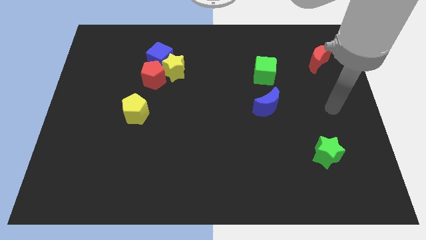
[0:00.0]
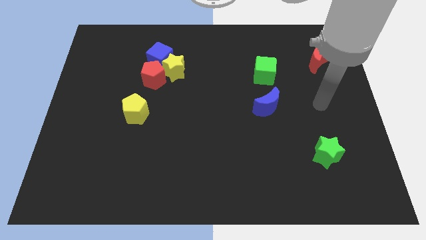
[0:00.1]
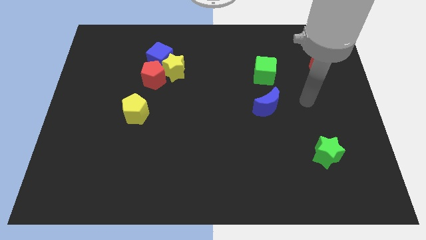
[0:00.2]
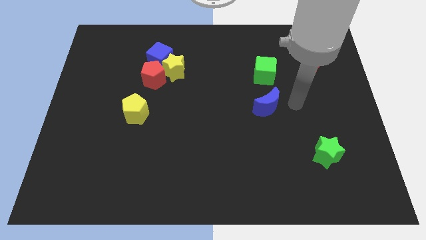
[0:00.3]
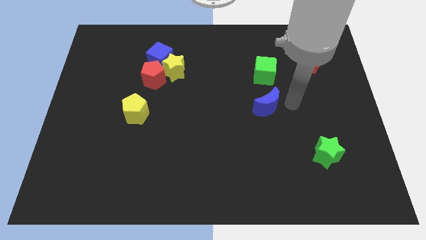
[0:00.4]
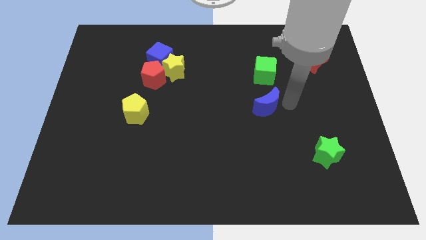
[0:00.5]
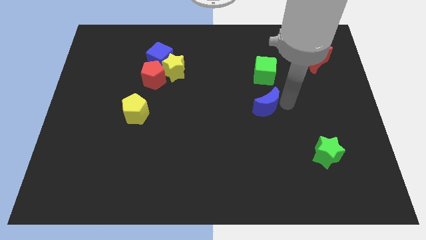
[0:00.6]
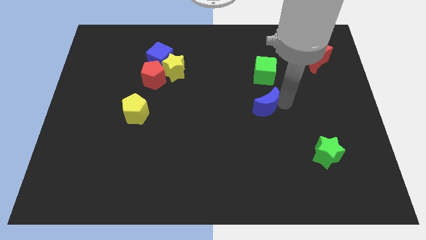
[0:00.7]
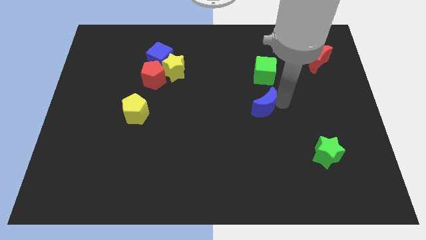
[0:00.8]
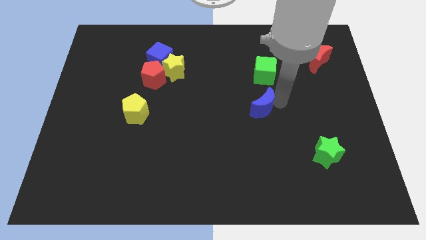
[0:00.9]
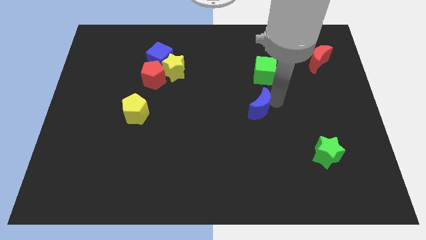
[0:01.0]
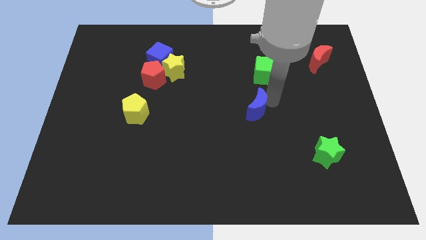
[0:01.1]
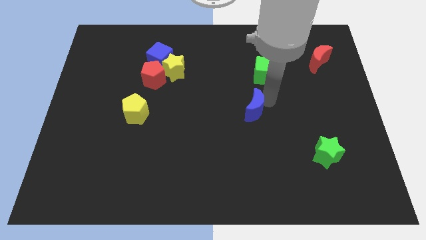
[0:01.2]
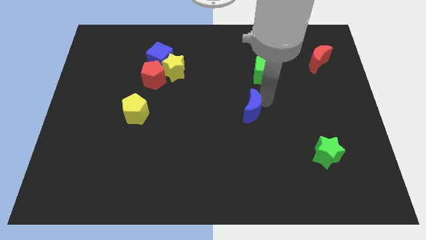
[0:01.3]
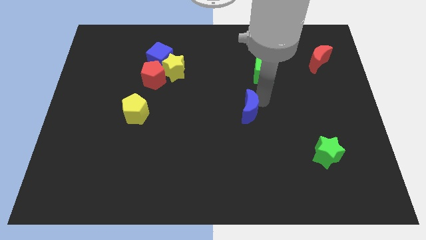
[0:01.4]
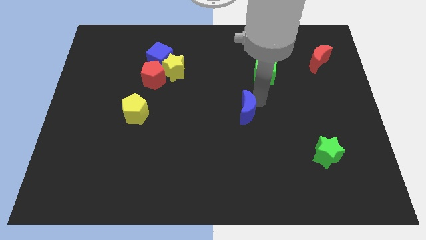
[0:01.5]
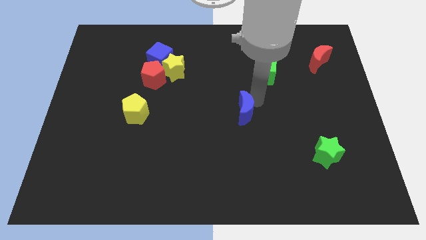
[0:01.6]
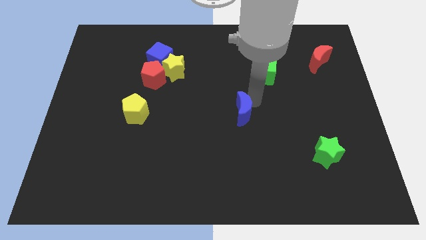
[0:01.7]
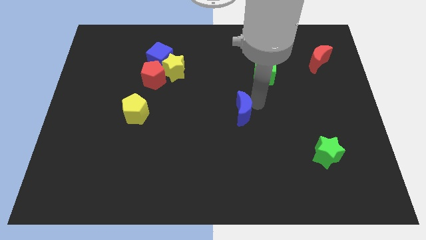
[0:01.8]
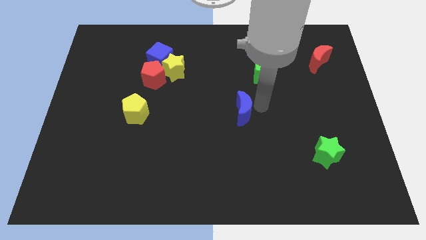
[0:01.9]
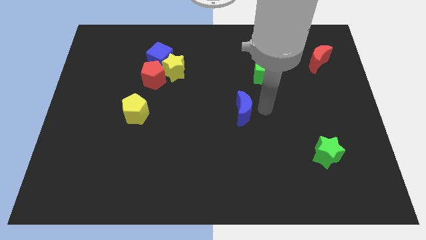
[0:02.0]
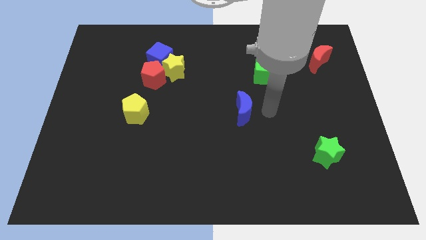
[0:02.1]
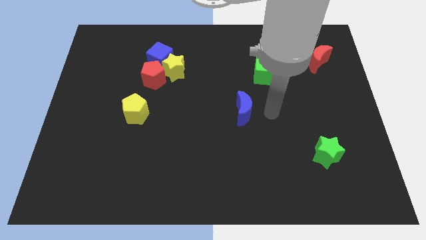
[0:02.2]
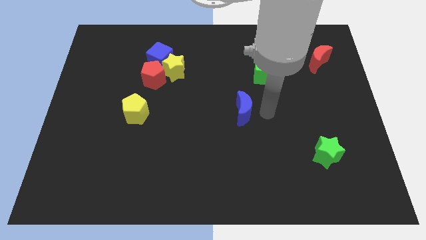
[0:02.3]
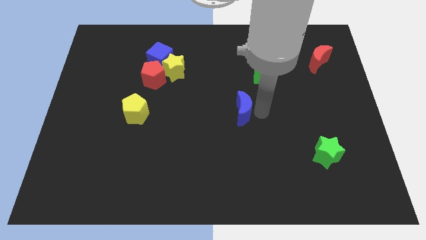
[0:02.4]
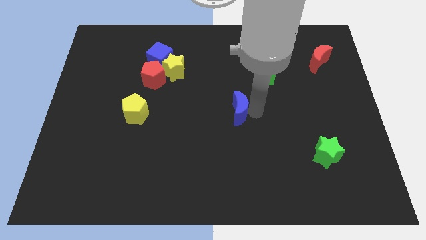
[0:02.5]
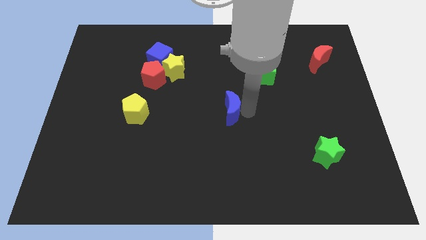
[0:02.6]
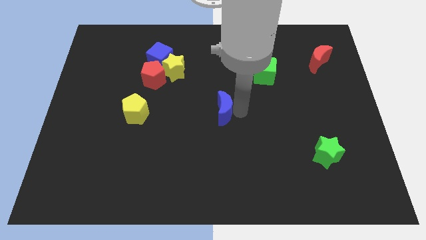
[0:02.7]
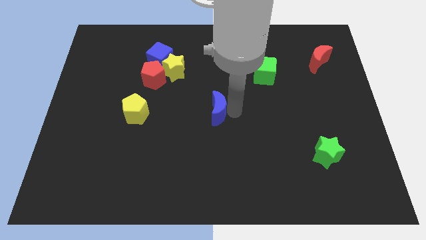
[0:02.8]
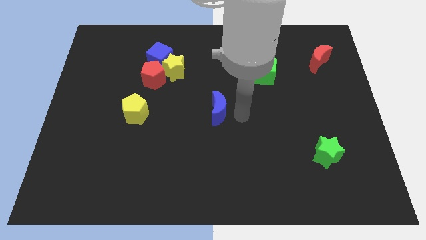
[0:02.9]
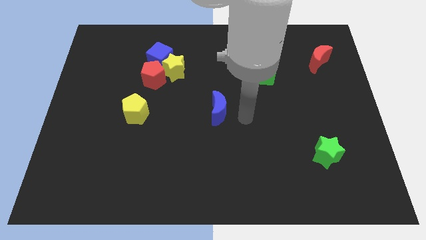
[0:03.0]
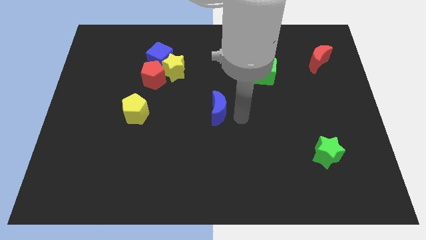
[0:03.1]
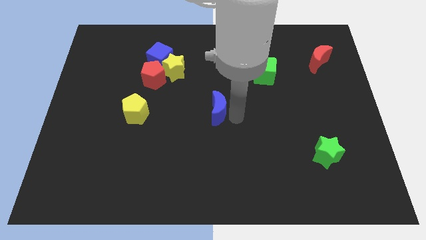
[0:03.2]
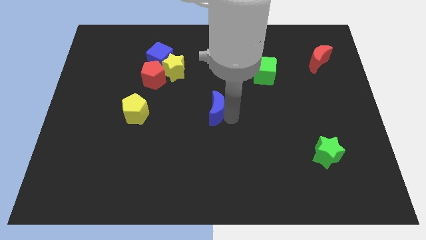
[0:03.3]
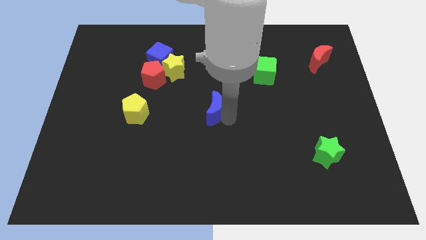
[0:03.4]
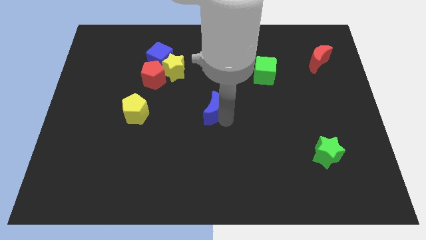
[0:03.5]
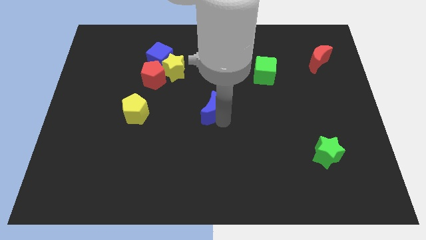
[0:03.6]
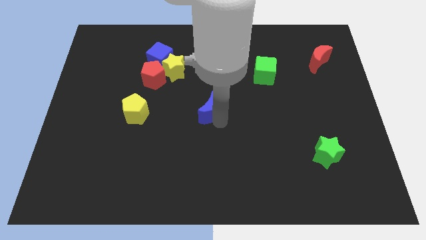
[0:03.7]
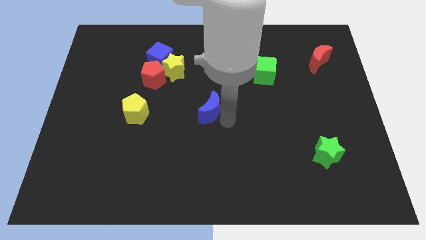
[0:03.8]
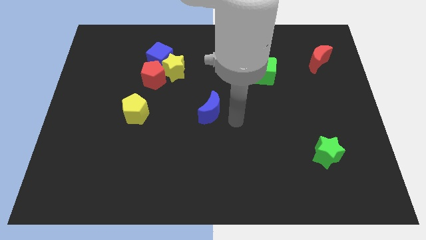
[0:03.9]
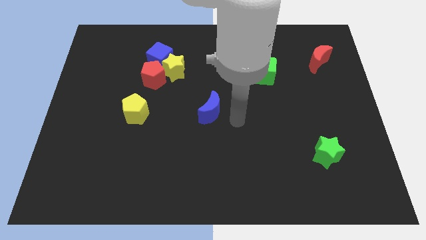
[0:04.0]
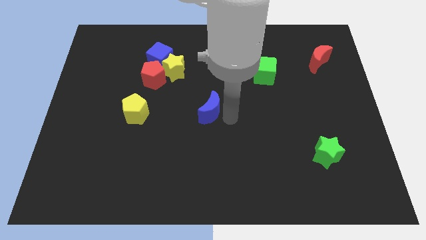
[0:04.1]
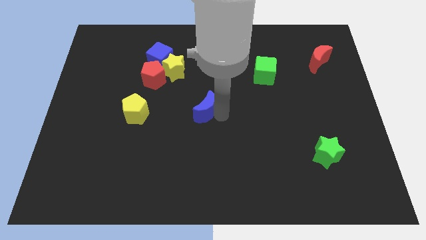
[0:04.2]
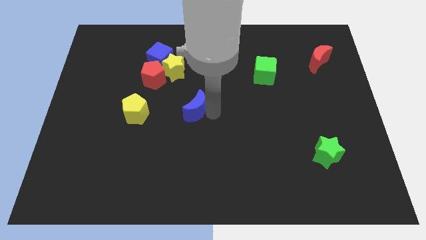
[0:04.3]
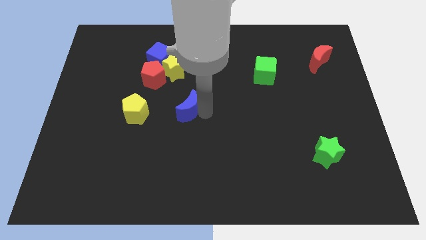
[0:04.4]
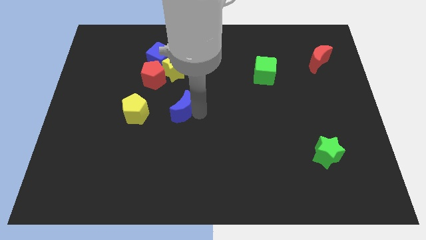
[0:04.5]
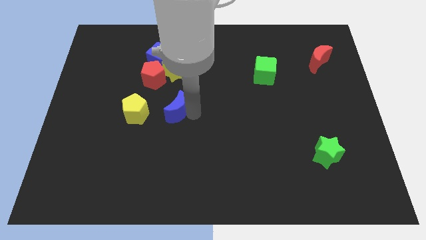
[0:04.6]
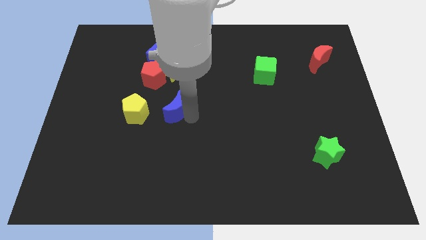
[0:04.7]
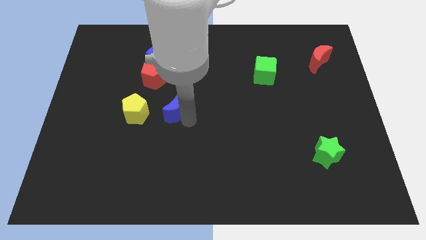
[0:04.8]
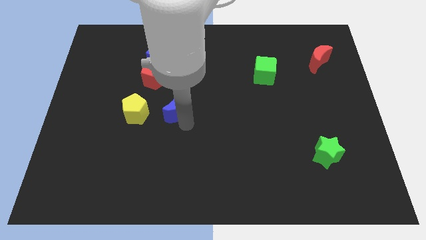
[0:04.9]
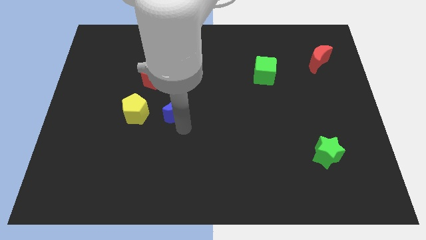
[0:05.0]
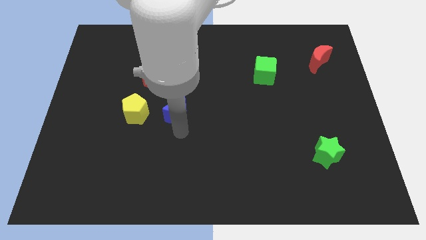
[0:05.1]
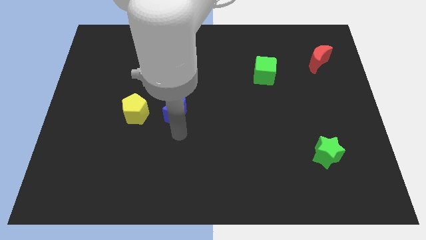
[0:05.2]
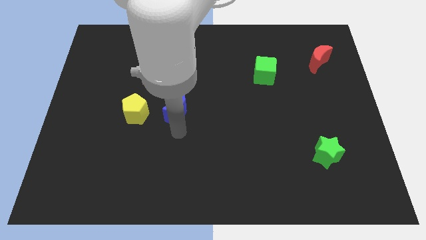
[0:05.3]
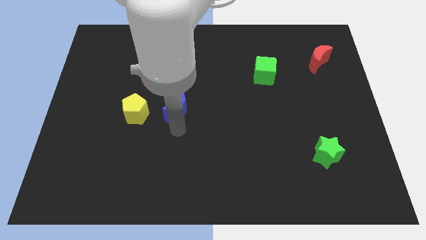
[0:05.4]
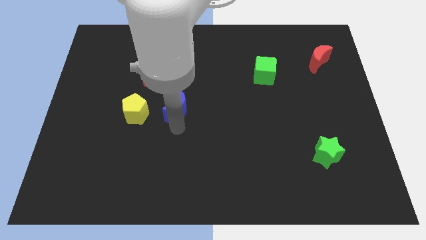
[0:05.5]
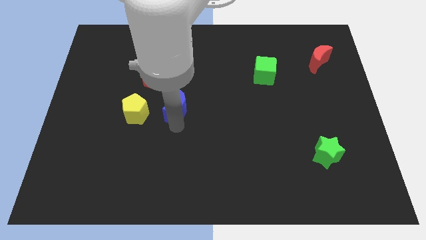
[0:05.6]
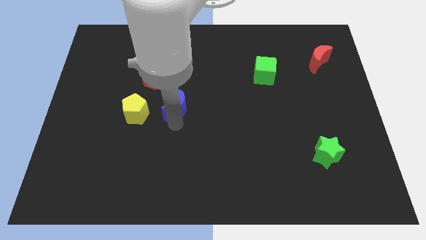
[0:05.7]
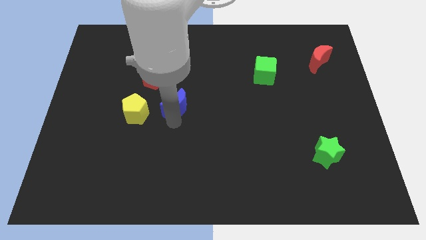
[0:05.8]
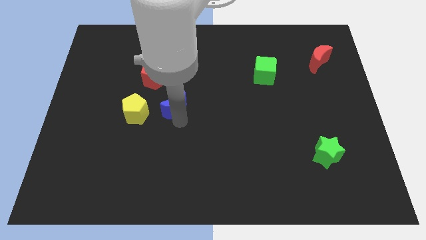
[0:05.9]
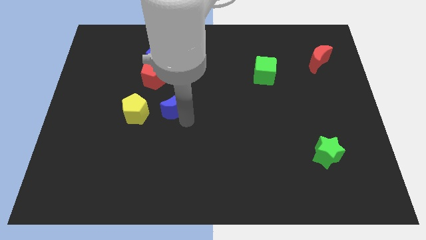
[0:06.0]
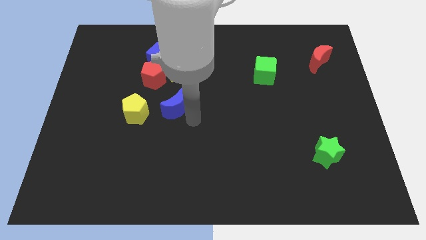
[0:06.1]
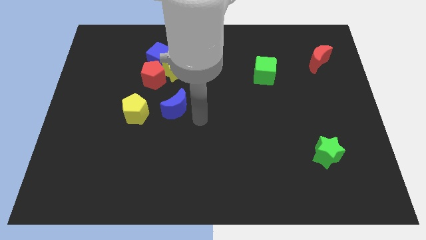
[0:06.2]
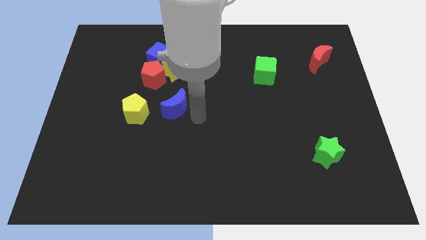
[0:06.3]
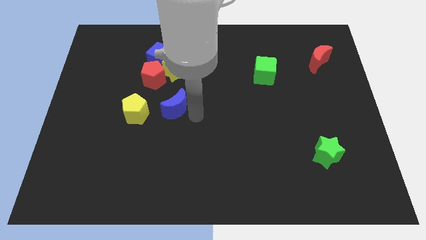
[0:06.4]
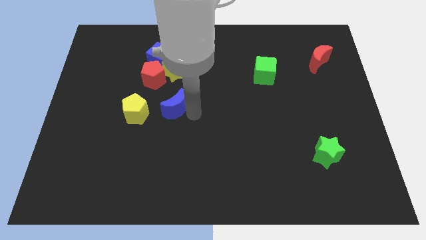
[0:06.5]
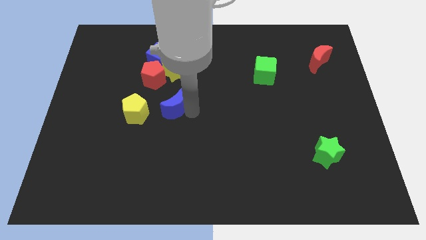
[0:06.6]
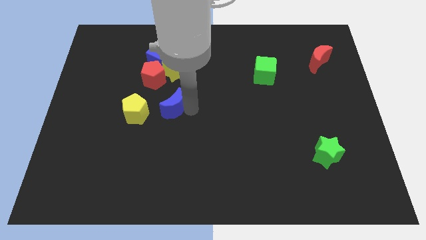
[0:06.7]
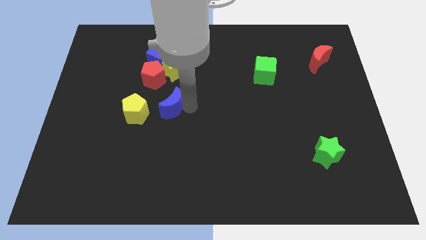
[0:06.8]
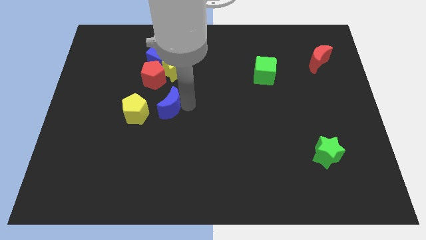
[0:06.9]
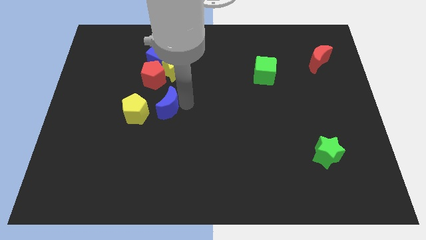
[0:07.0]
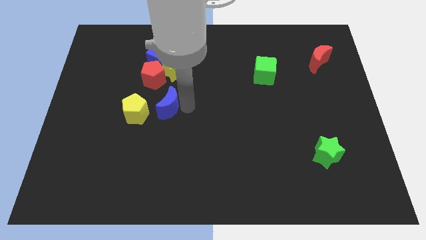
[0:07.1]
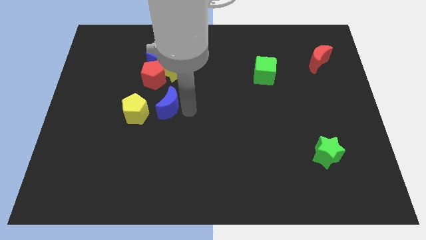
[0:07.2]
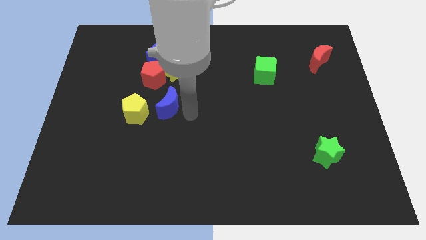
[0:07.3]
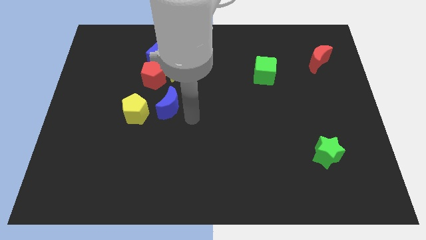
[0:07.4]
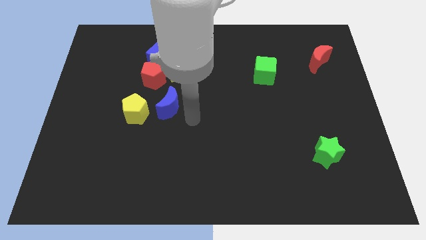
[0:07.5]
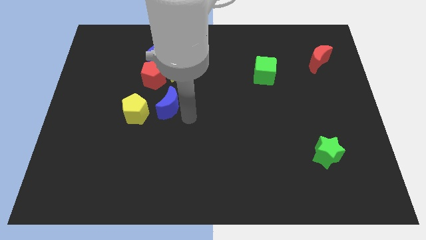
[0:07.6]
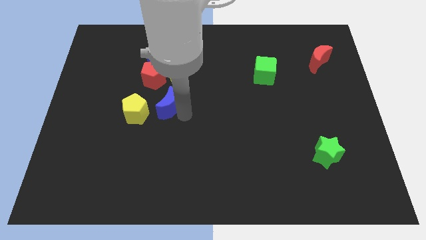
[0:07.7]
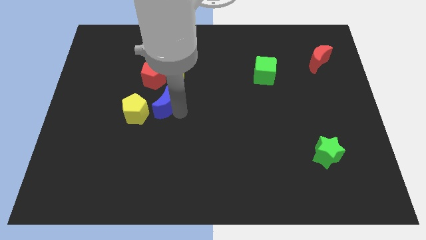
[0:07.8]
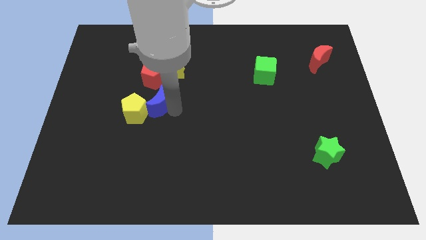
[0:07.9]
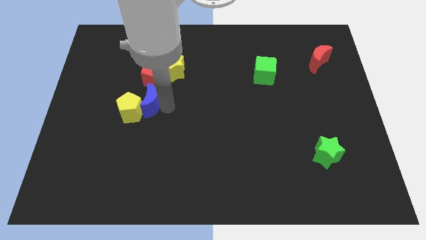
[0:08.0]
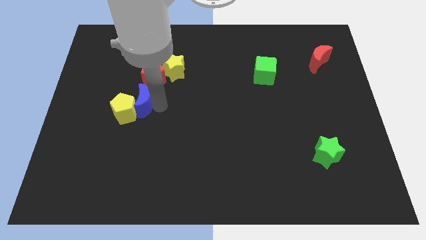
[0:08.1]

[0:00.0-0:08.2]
slide the blue moon to the bottom left of the red pentagon
